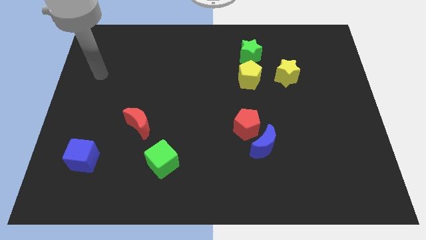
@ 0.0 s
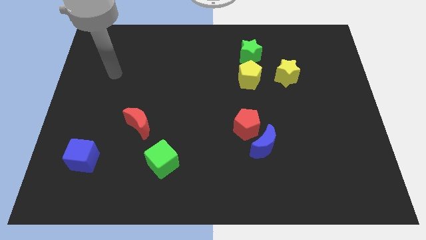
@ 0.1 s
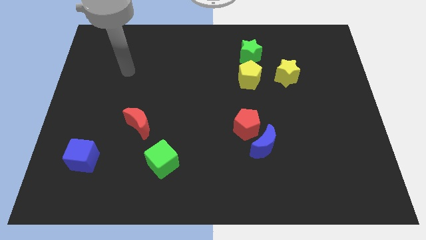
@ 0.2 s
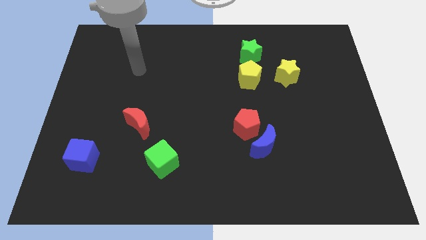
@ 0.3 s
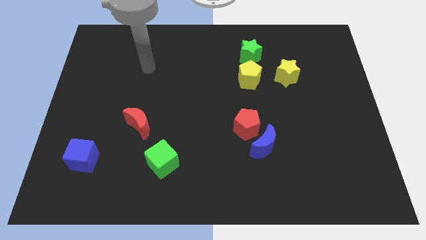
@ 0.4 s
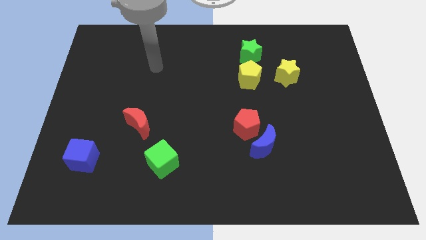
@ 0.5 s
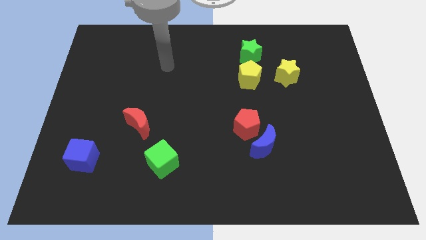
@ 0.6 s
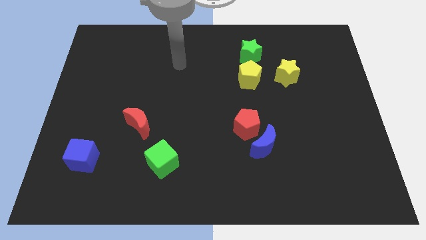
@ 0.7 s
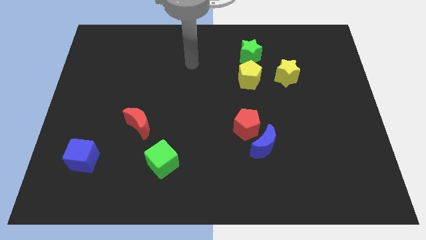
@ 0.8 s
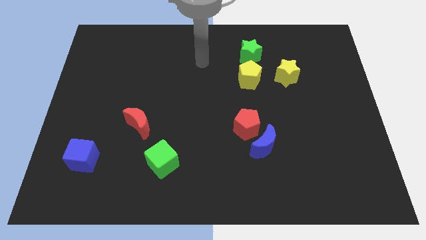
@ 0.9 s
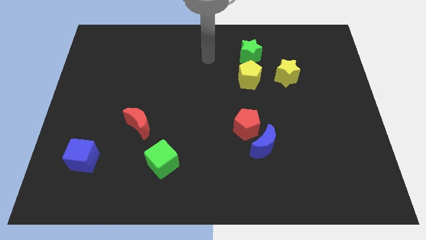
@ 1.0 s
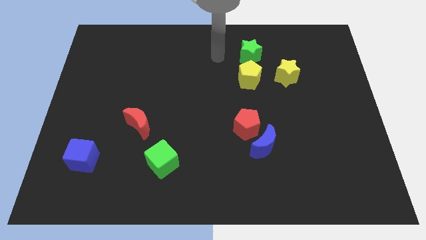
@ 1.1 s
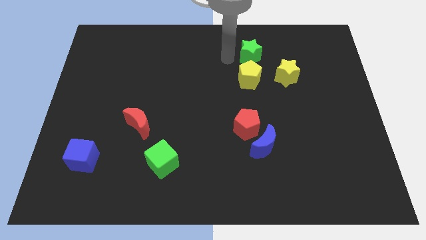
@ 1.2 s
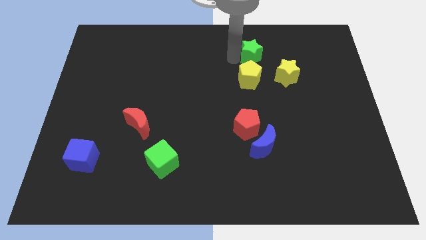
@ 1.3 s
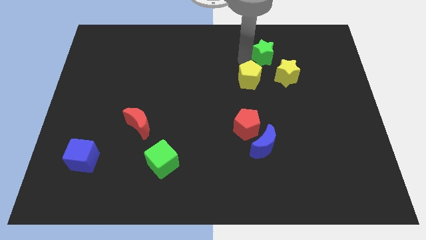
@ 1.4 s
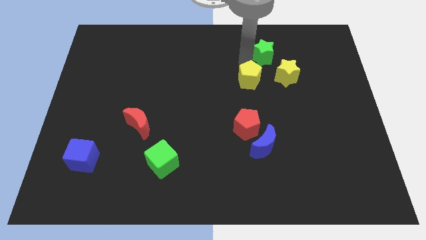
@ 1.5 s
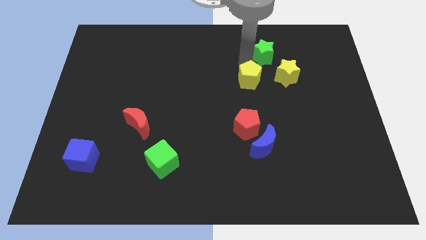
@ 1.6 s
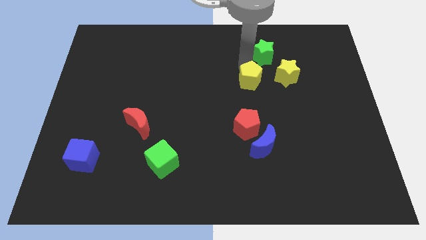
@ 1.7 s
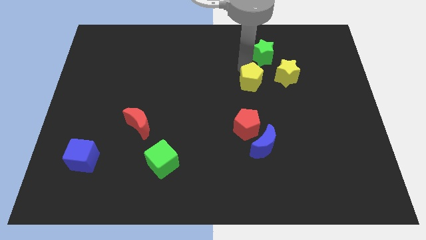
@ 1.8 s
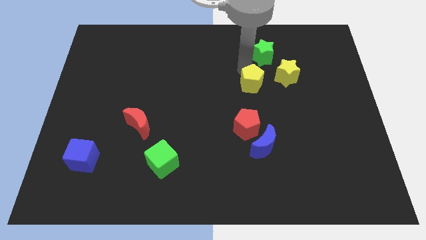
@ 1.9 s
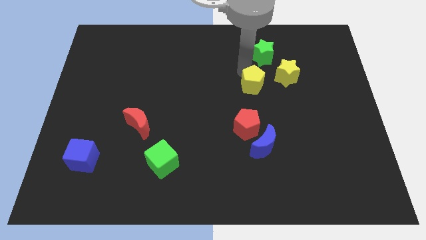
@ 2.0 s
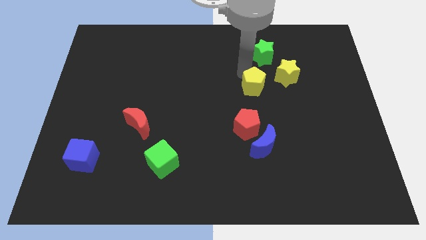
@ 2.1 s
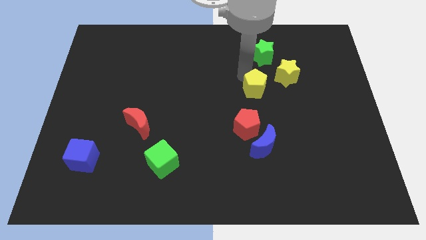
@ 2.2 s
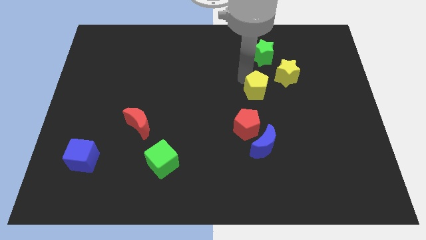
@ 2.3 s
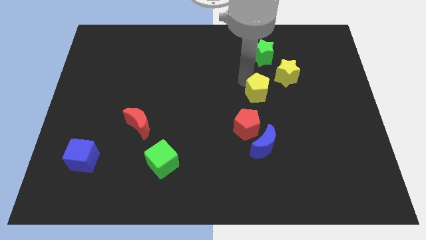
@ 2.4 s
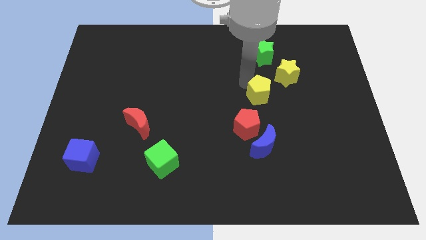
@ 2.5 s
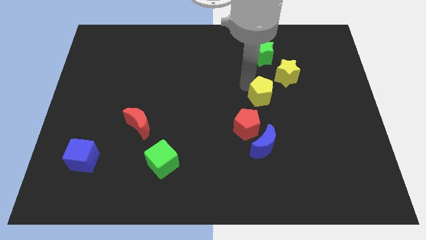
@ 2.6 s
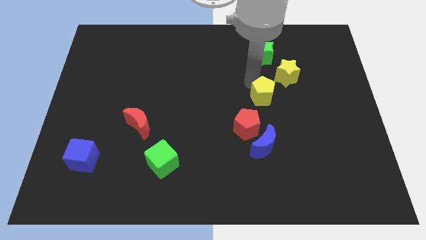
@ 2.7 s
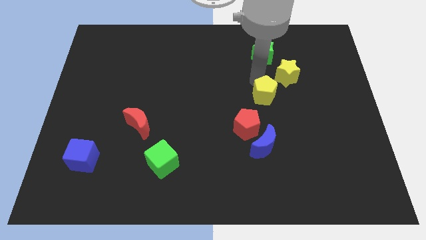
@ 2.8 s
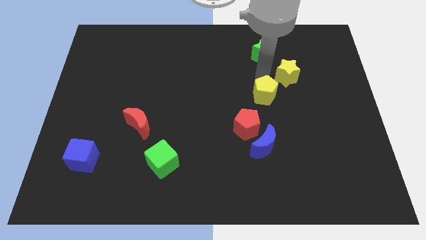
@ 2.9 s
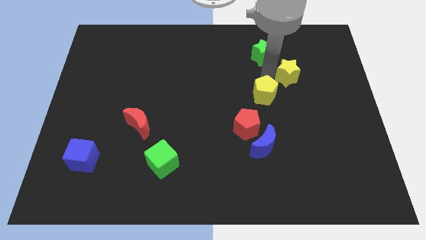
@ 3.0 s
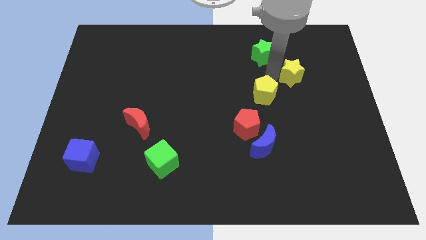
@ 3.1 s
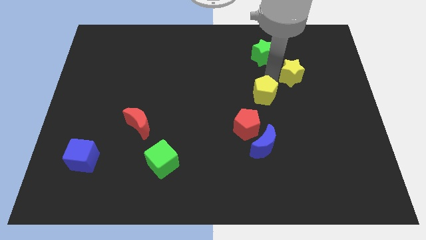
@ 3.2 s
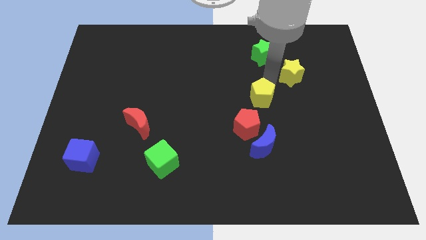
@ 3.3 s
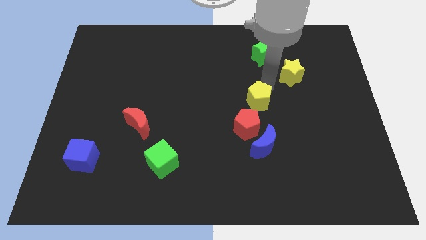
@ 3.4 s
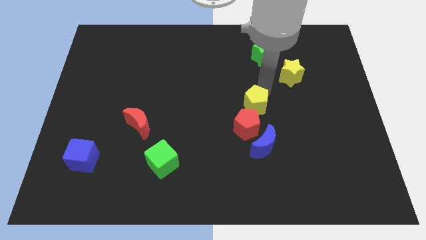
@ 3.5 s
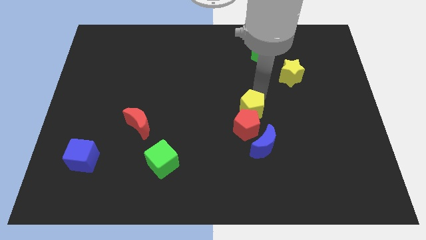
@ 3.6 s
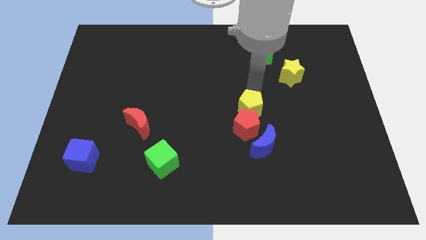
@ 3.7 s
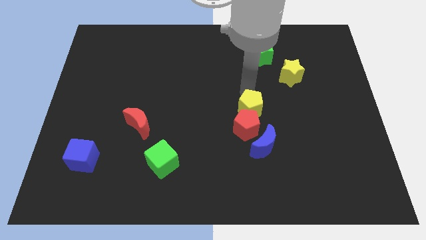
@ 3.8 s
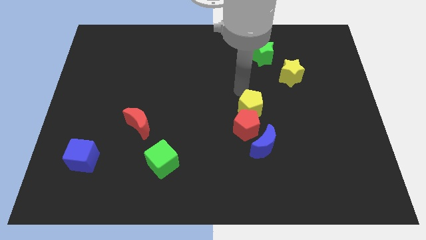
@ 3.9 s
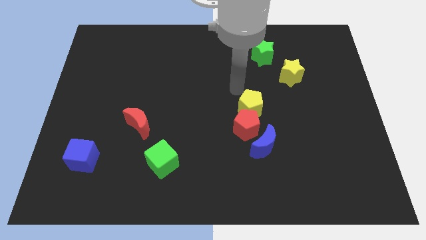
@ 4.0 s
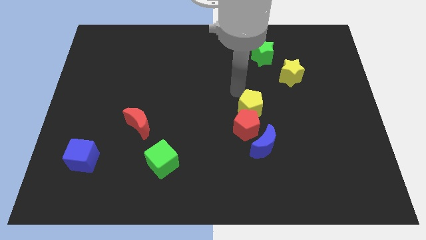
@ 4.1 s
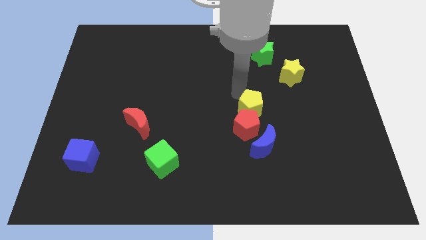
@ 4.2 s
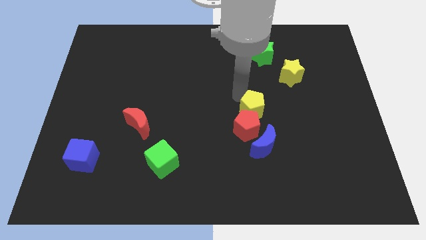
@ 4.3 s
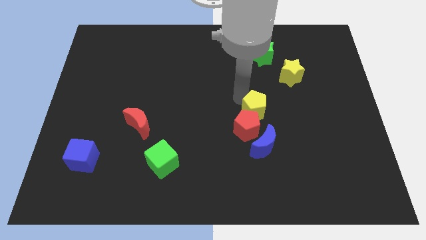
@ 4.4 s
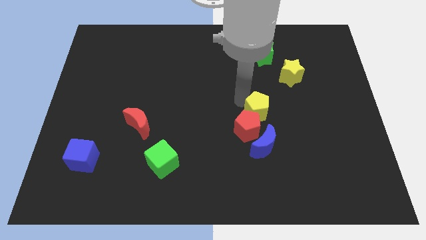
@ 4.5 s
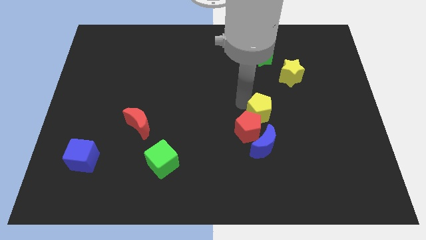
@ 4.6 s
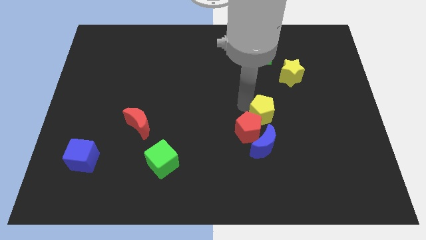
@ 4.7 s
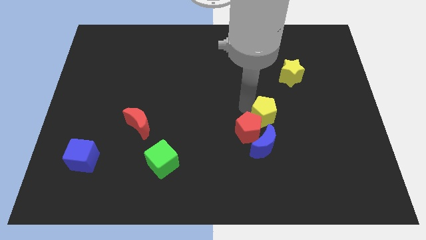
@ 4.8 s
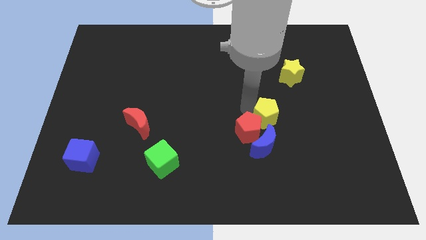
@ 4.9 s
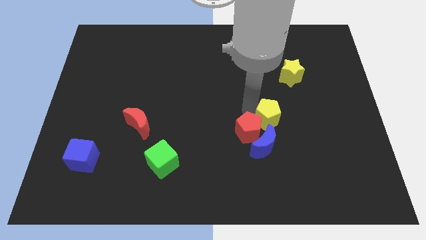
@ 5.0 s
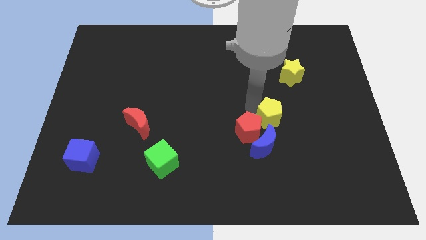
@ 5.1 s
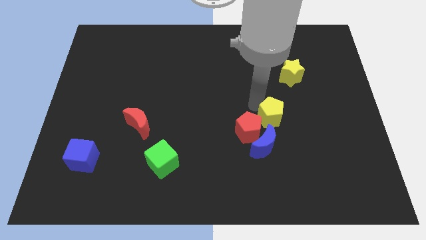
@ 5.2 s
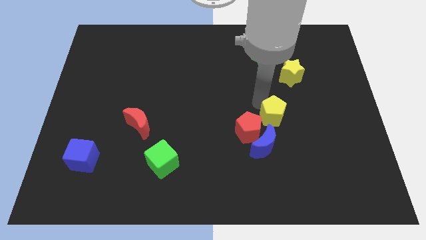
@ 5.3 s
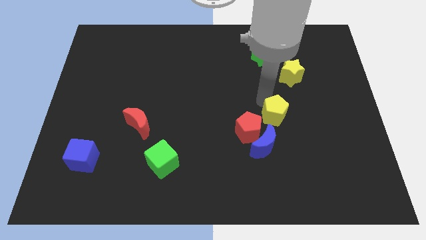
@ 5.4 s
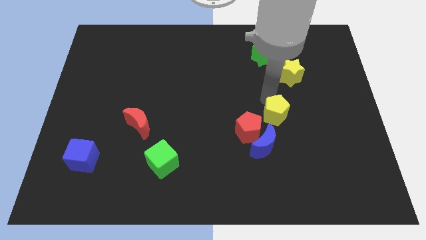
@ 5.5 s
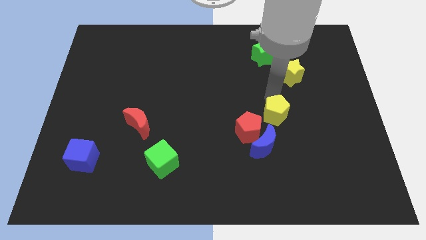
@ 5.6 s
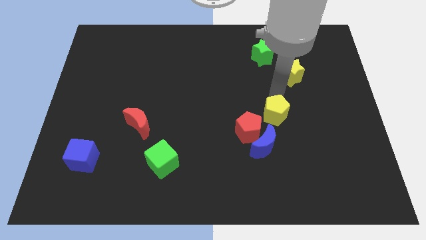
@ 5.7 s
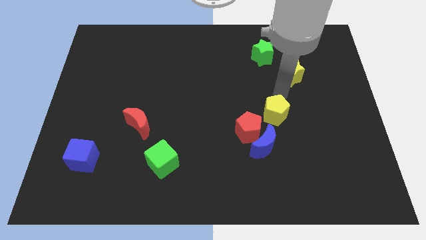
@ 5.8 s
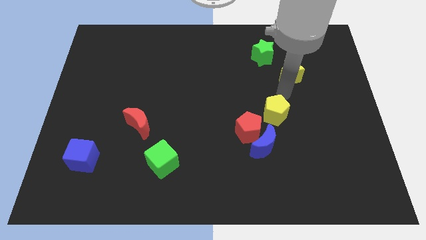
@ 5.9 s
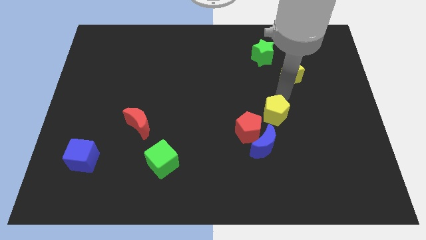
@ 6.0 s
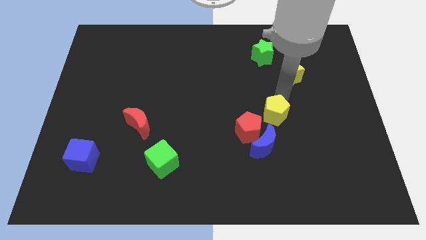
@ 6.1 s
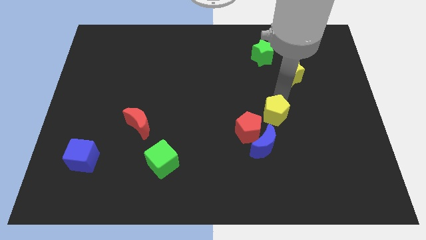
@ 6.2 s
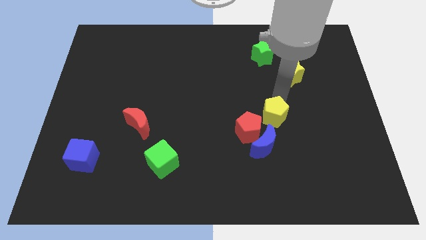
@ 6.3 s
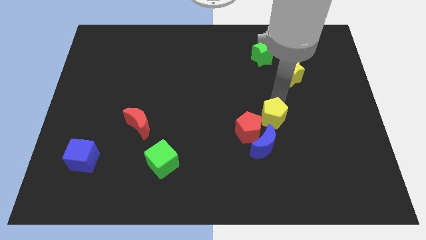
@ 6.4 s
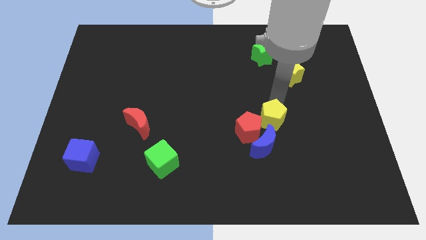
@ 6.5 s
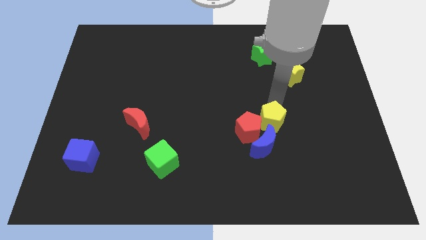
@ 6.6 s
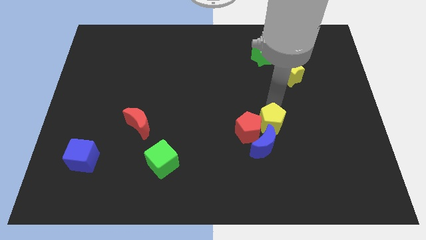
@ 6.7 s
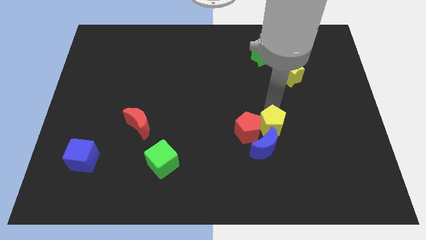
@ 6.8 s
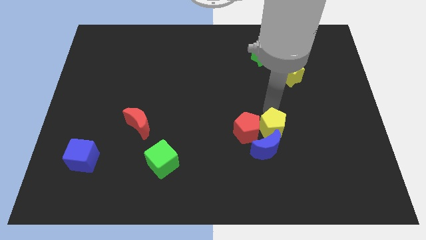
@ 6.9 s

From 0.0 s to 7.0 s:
put the yellow pentagon to the blue moon
